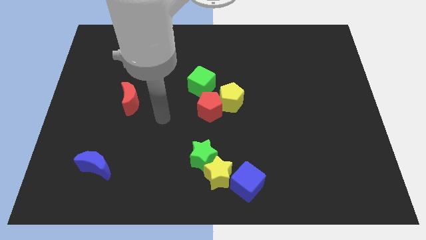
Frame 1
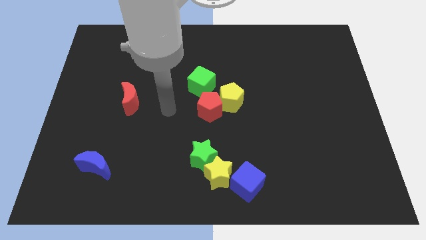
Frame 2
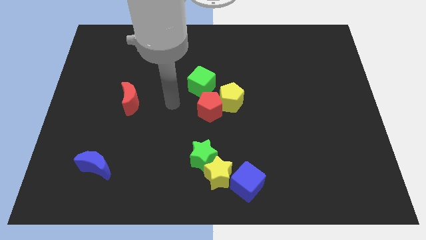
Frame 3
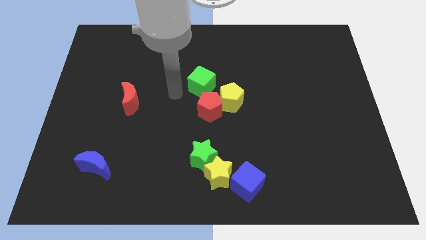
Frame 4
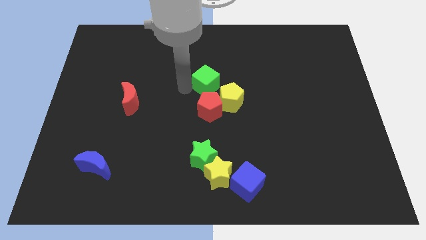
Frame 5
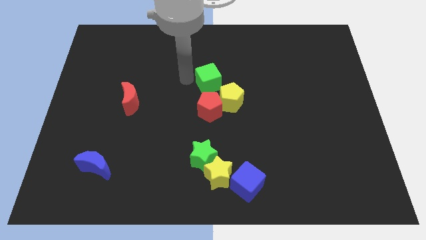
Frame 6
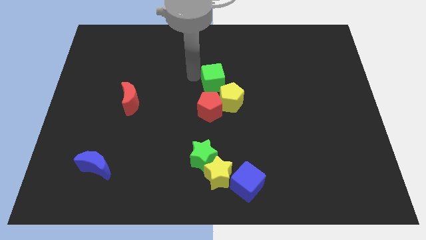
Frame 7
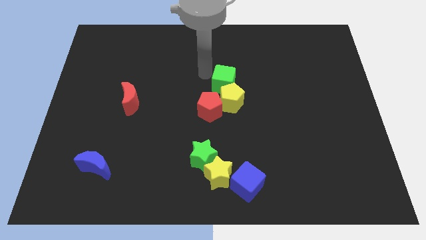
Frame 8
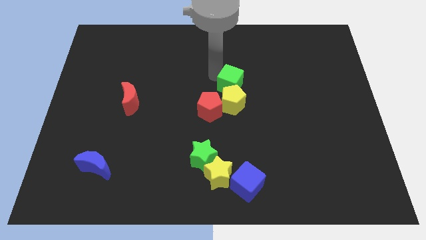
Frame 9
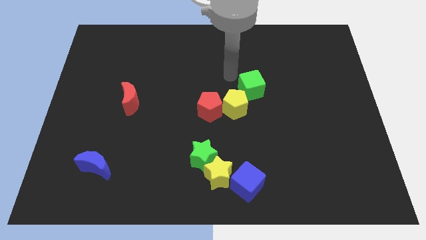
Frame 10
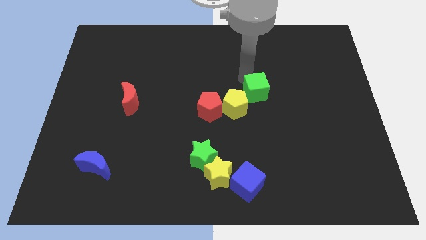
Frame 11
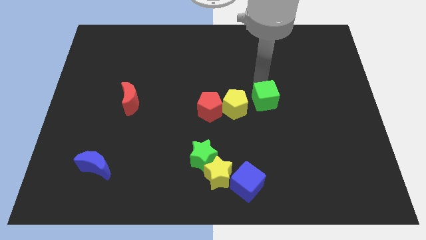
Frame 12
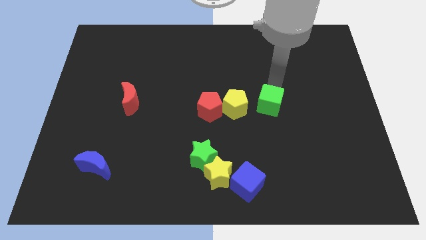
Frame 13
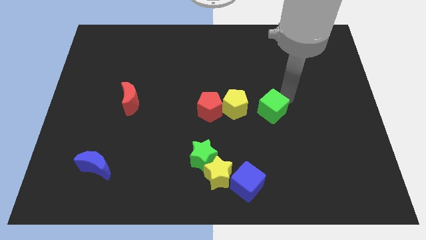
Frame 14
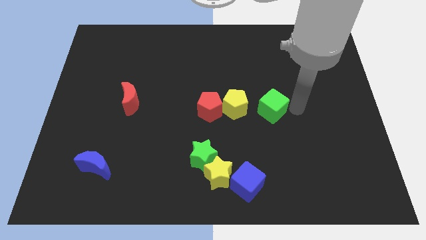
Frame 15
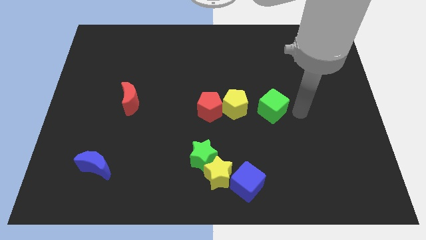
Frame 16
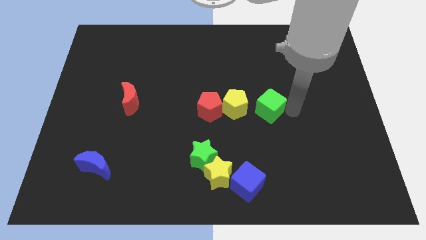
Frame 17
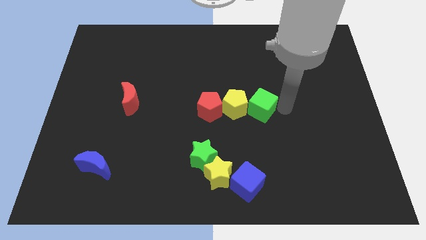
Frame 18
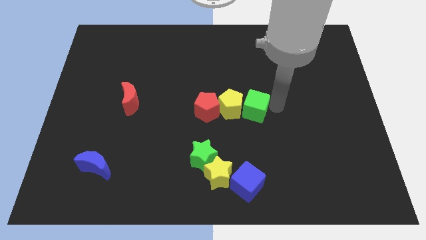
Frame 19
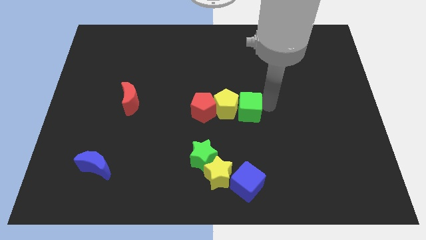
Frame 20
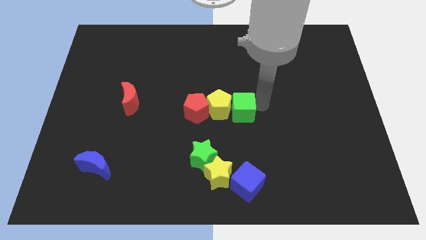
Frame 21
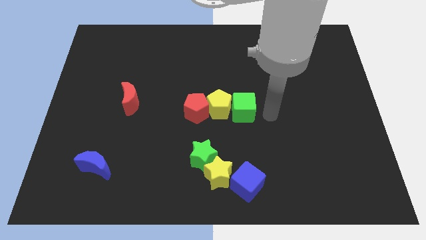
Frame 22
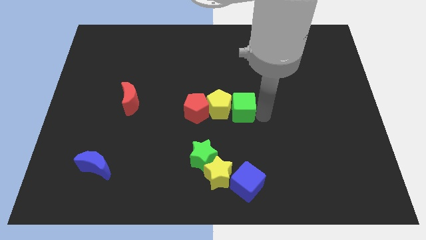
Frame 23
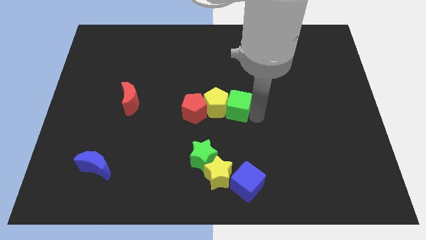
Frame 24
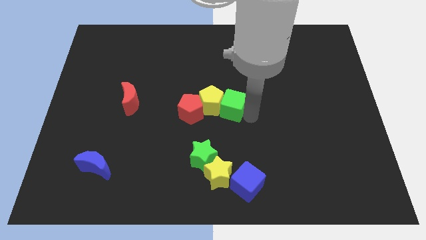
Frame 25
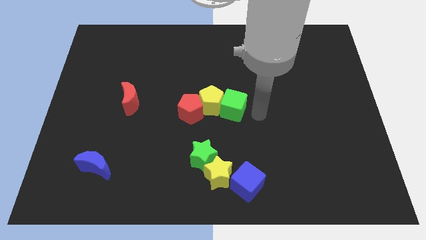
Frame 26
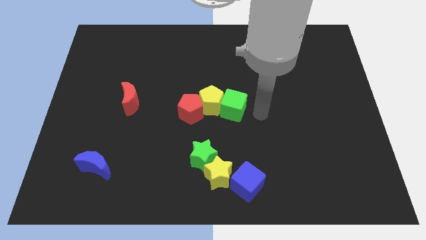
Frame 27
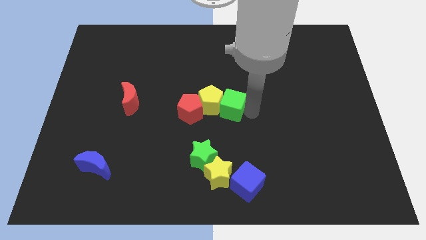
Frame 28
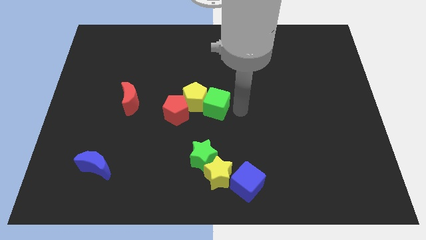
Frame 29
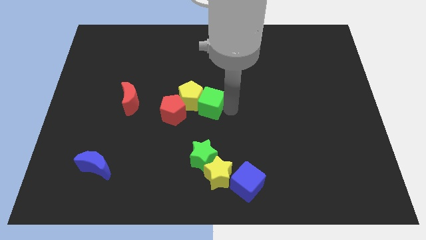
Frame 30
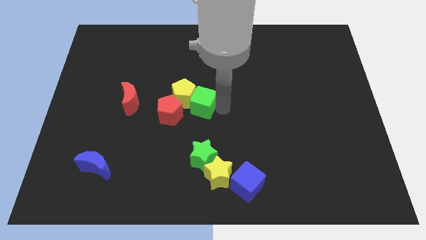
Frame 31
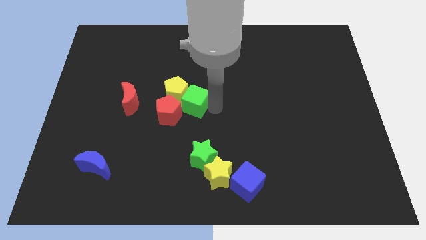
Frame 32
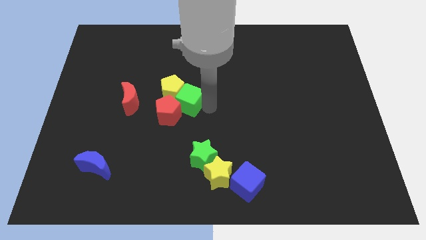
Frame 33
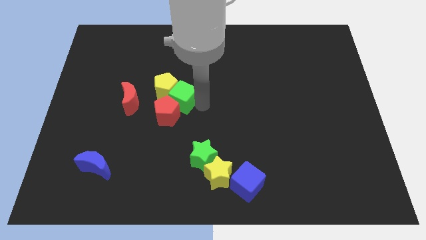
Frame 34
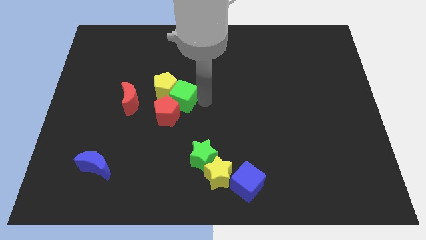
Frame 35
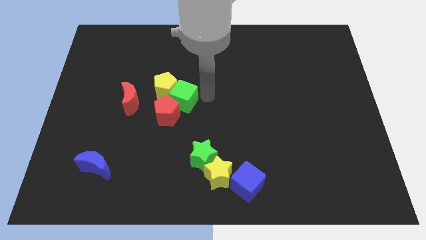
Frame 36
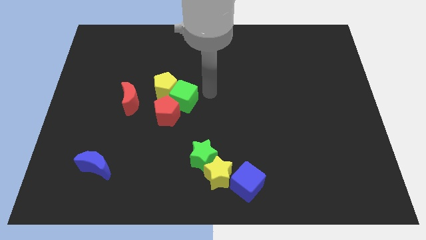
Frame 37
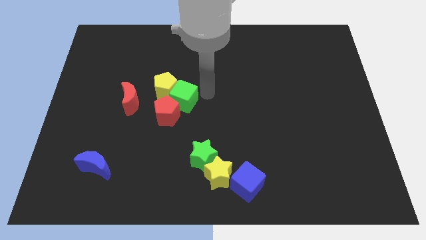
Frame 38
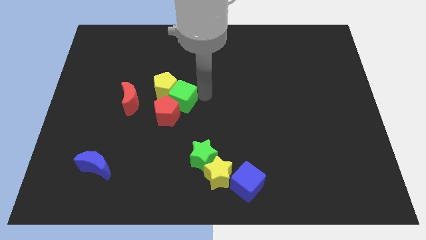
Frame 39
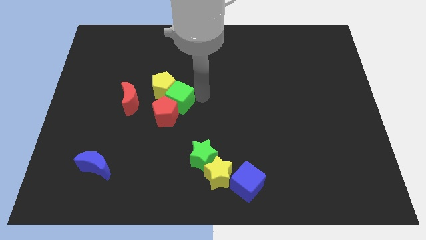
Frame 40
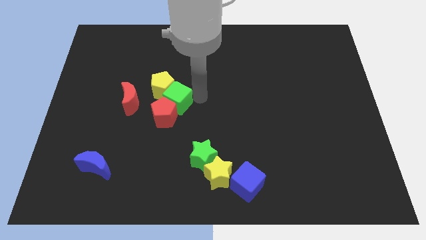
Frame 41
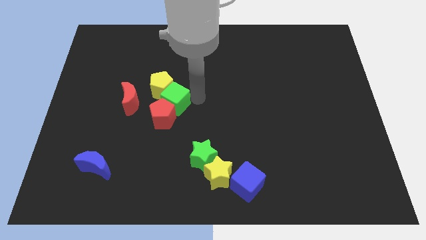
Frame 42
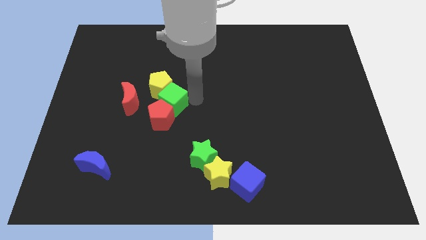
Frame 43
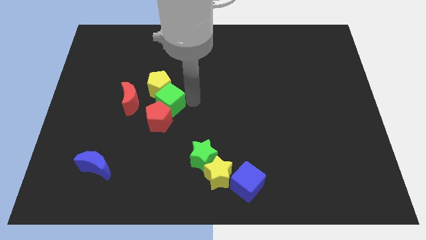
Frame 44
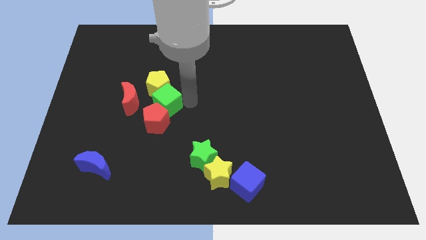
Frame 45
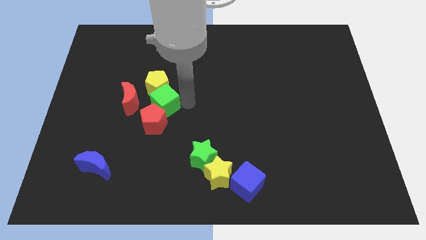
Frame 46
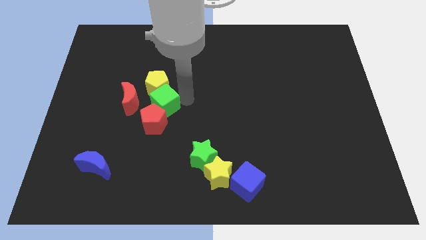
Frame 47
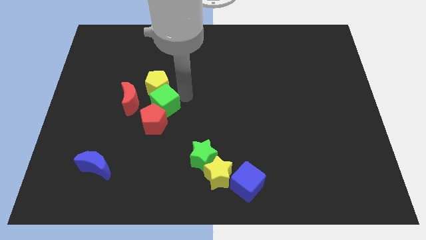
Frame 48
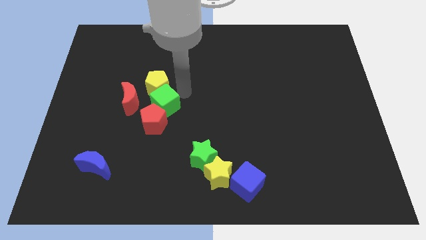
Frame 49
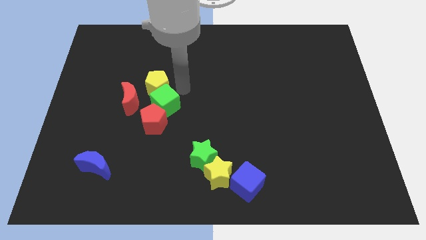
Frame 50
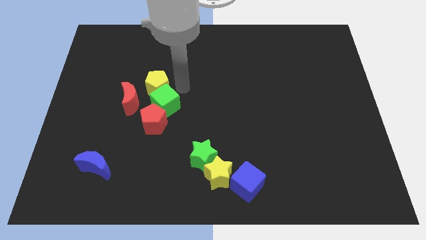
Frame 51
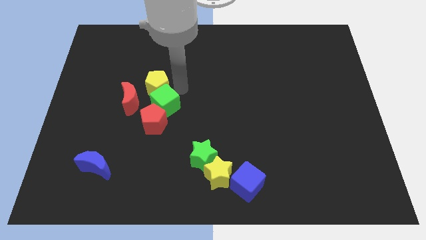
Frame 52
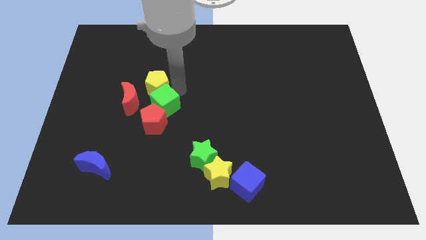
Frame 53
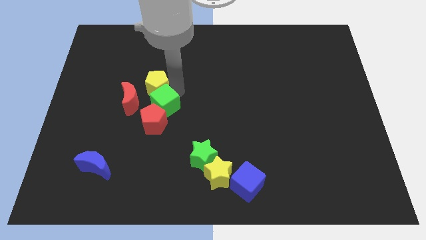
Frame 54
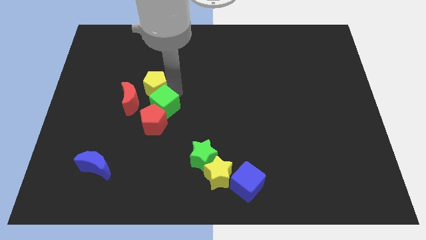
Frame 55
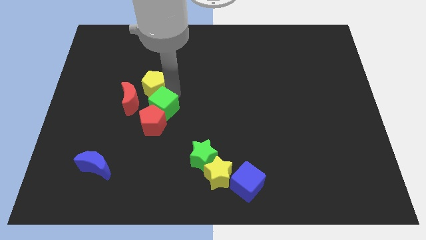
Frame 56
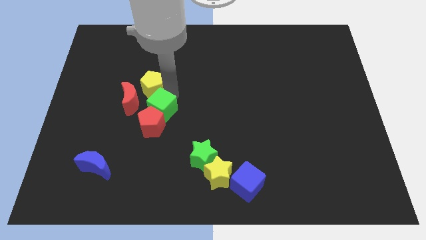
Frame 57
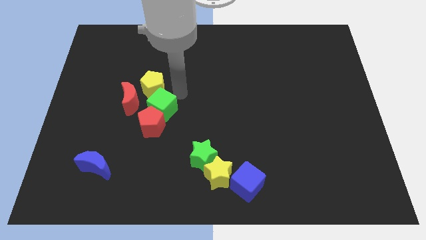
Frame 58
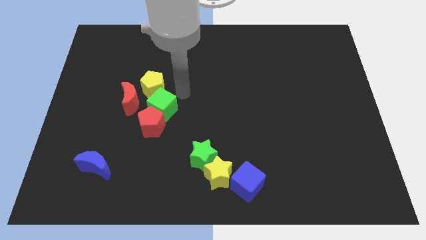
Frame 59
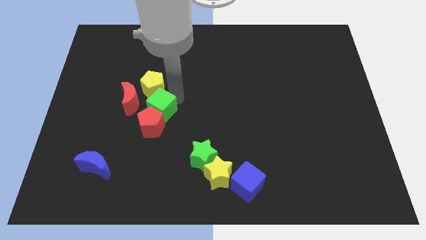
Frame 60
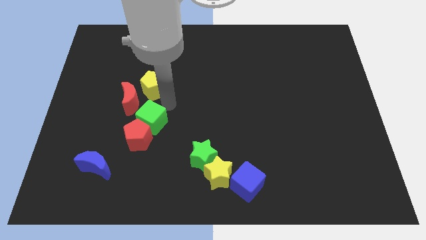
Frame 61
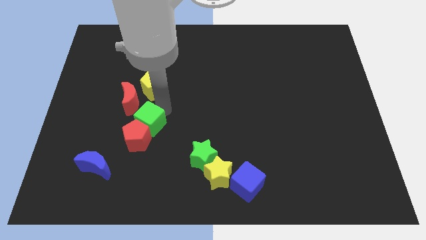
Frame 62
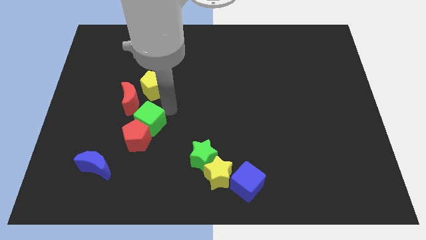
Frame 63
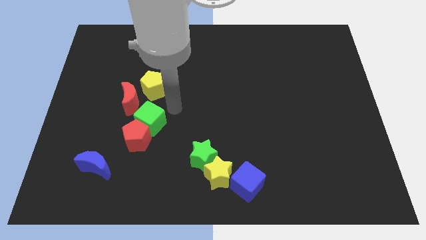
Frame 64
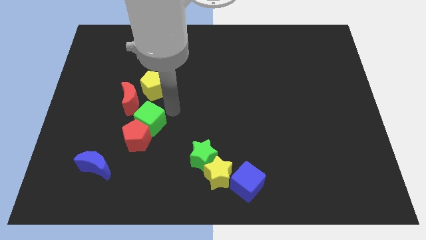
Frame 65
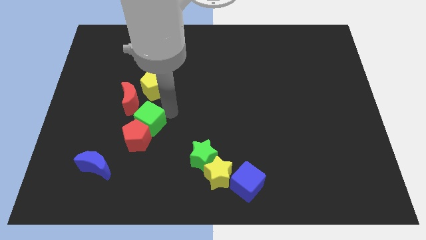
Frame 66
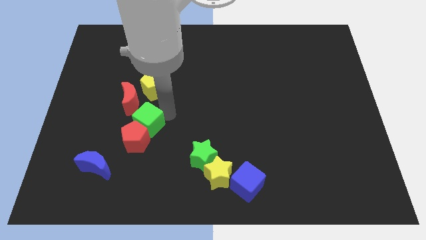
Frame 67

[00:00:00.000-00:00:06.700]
push the green cube to the bottom of the red moon
